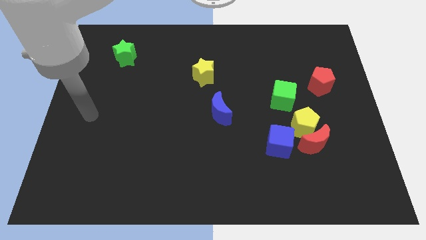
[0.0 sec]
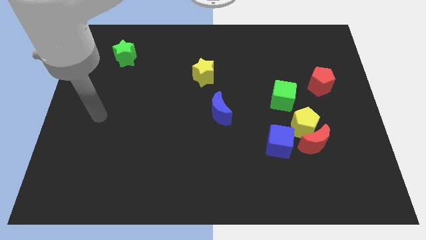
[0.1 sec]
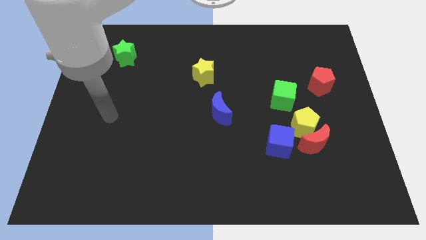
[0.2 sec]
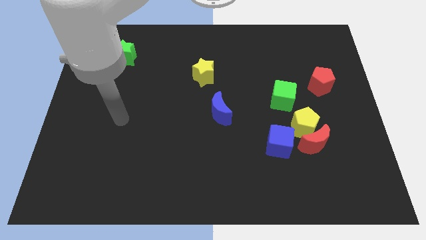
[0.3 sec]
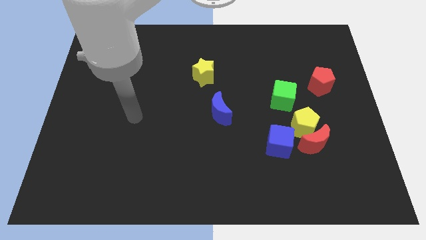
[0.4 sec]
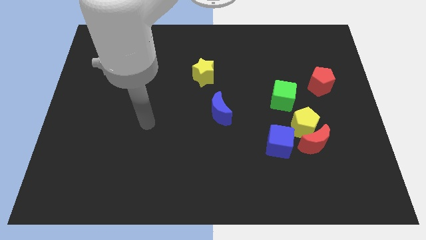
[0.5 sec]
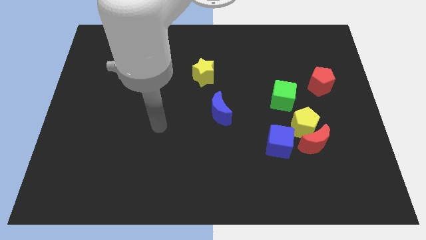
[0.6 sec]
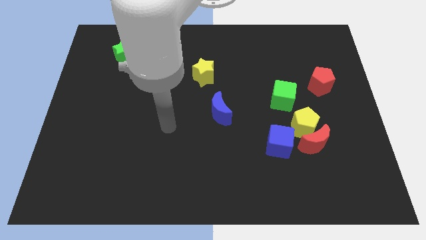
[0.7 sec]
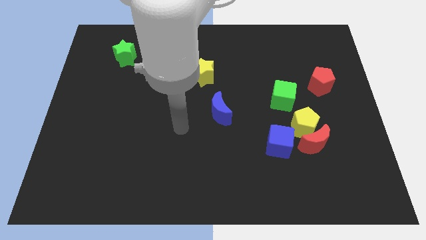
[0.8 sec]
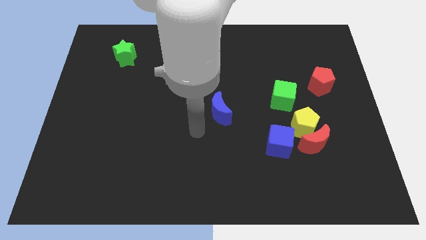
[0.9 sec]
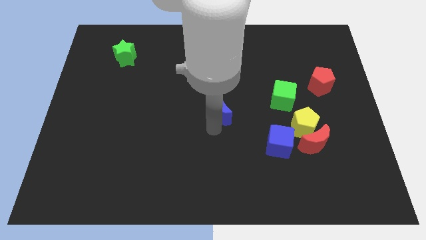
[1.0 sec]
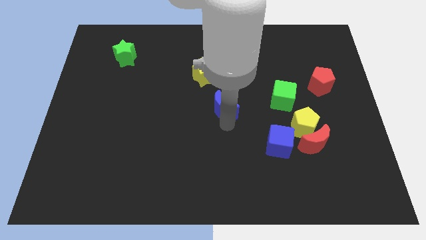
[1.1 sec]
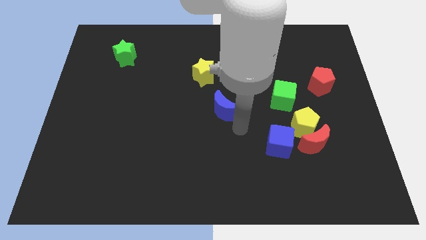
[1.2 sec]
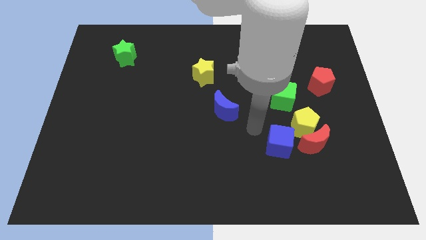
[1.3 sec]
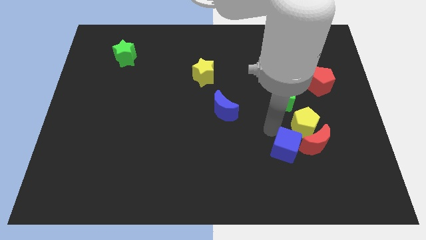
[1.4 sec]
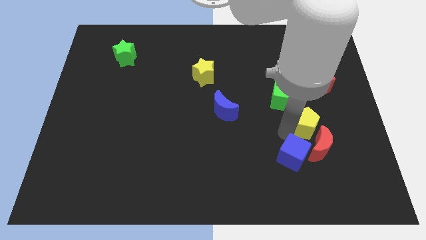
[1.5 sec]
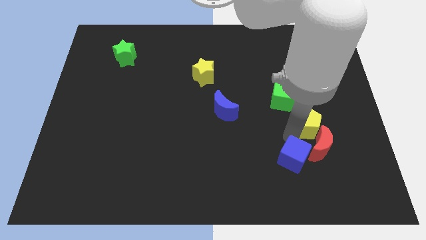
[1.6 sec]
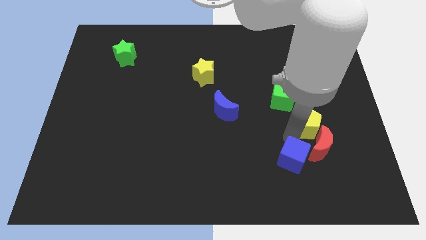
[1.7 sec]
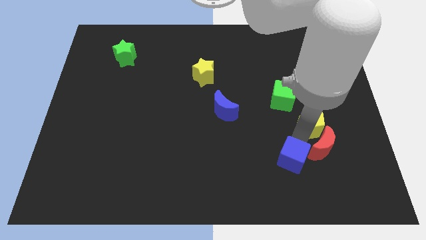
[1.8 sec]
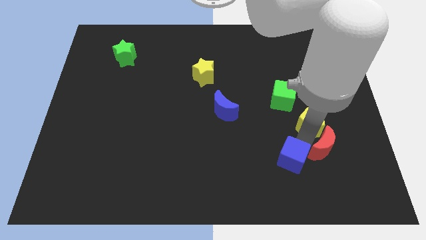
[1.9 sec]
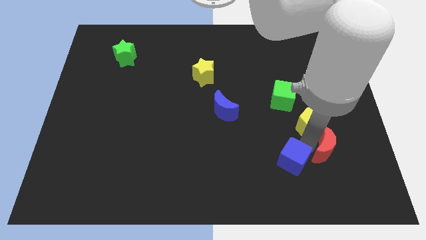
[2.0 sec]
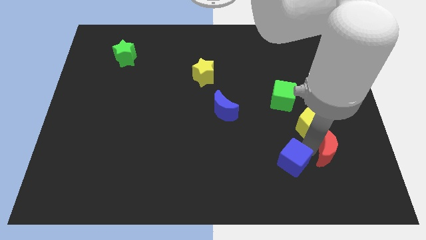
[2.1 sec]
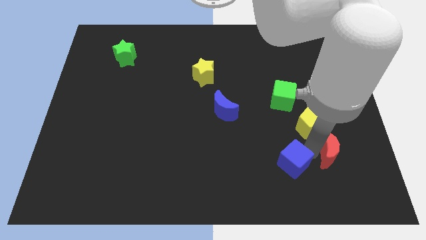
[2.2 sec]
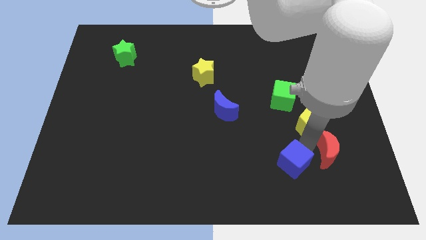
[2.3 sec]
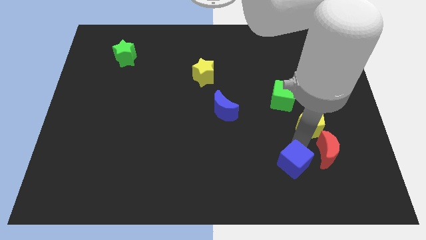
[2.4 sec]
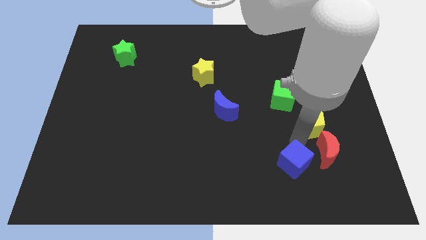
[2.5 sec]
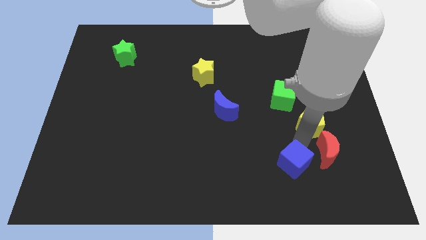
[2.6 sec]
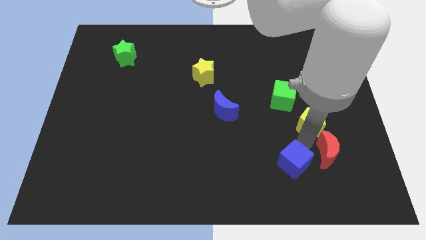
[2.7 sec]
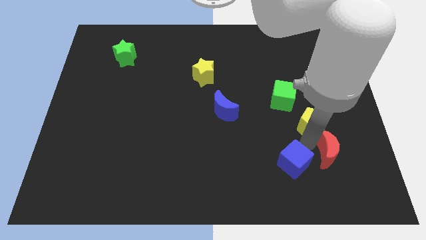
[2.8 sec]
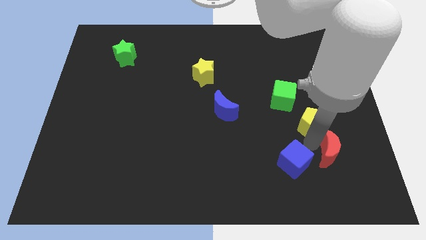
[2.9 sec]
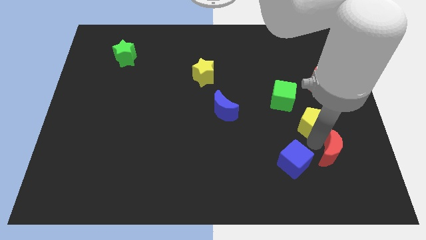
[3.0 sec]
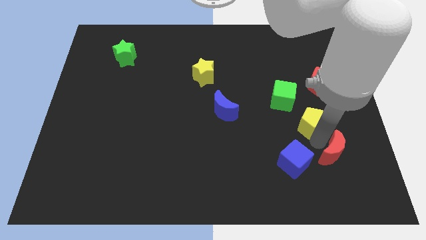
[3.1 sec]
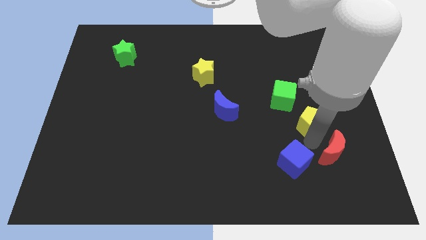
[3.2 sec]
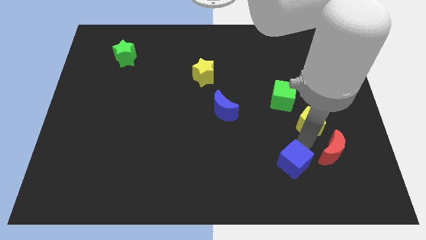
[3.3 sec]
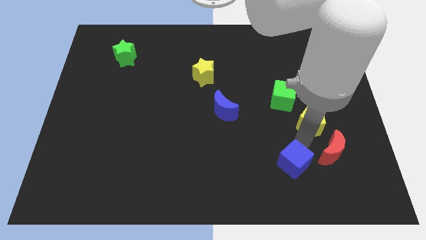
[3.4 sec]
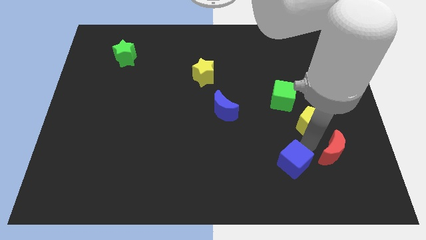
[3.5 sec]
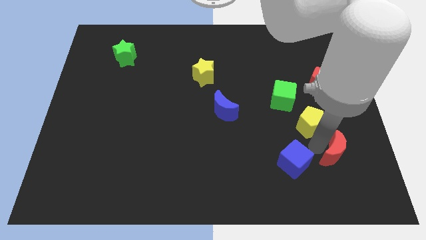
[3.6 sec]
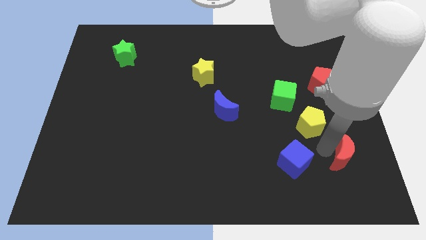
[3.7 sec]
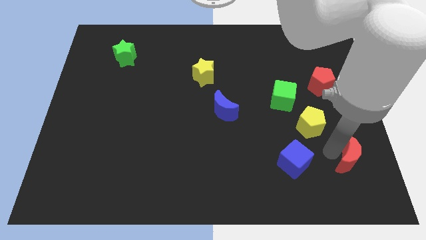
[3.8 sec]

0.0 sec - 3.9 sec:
pull the red moon apart from the yellow pentagon and blue cube

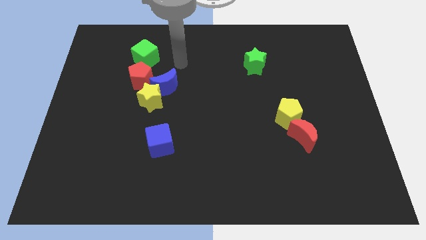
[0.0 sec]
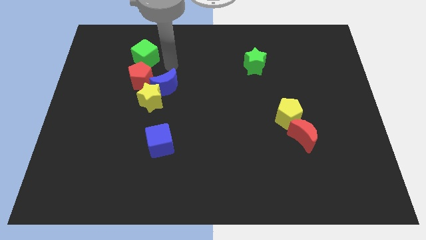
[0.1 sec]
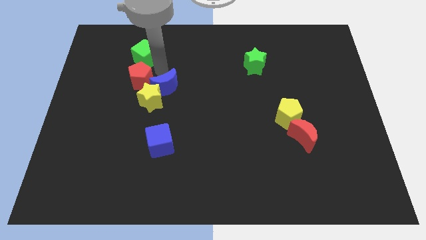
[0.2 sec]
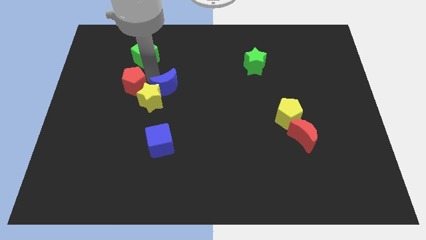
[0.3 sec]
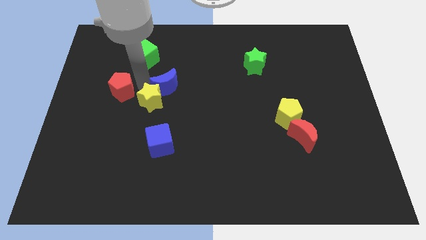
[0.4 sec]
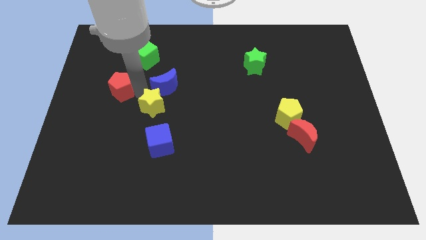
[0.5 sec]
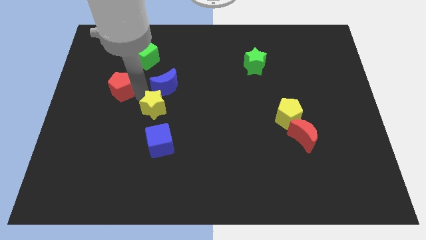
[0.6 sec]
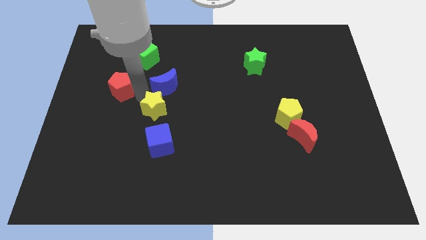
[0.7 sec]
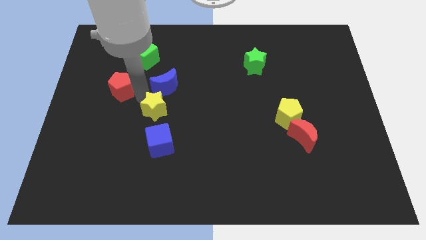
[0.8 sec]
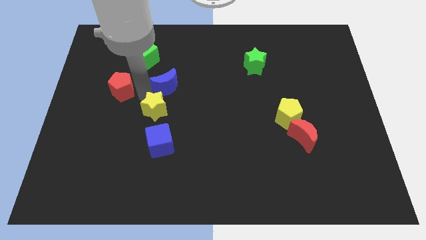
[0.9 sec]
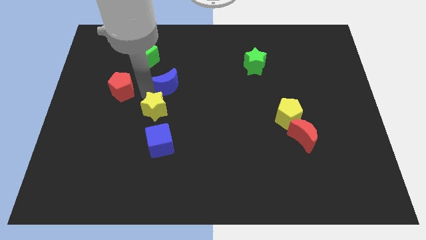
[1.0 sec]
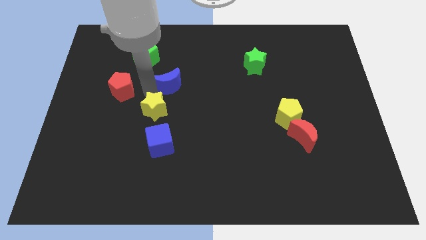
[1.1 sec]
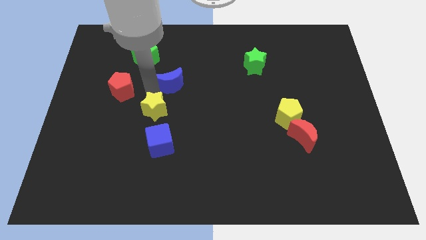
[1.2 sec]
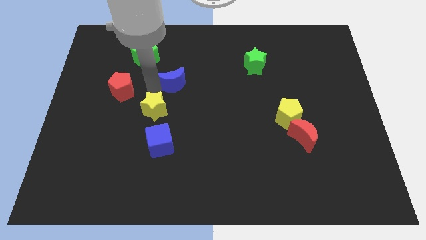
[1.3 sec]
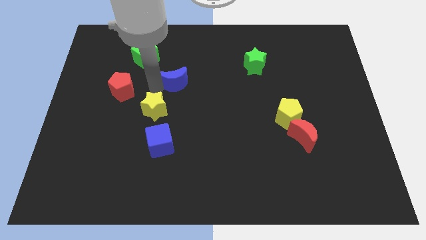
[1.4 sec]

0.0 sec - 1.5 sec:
pull the blue moon apart from the yellow star and red pentagon

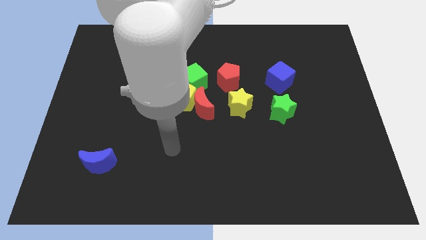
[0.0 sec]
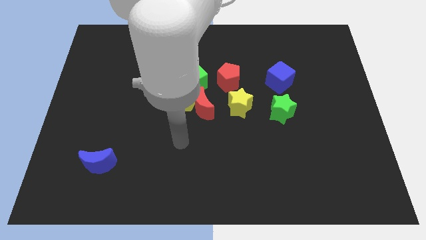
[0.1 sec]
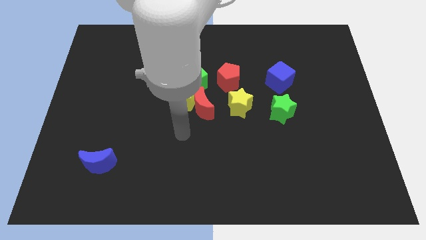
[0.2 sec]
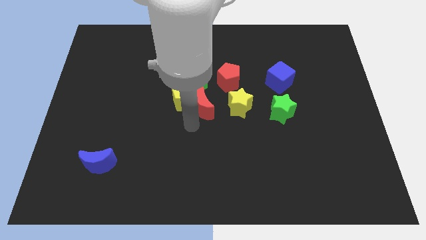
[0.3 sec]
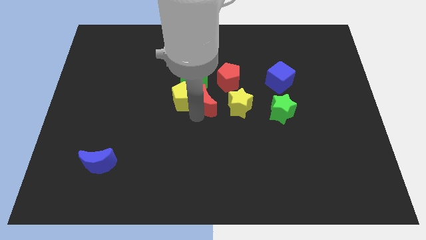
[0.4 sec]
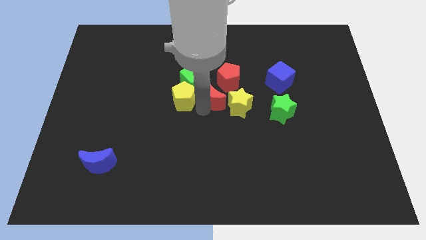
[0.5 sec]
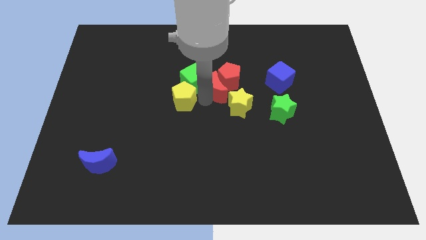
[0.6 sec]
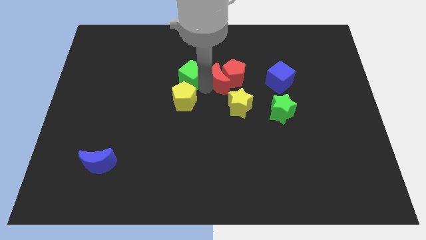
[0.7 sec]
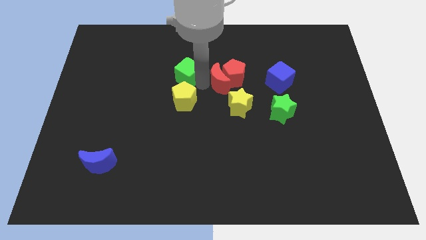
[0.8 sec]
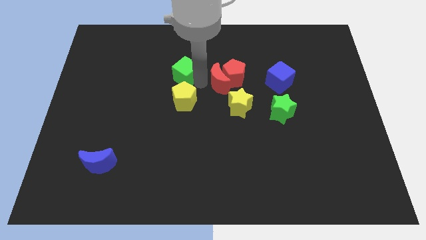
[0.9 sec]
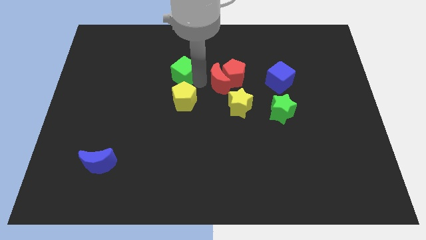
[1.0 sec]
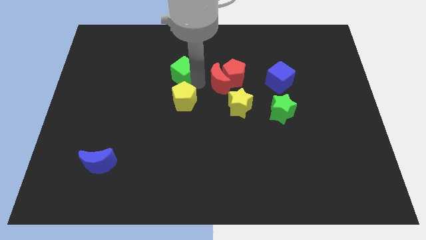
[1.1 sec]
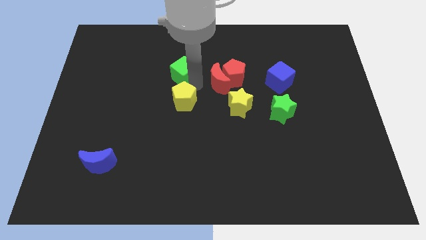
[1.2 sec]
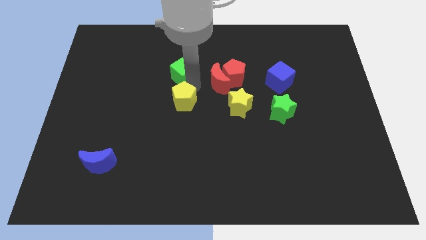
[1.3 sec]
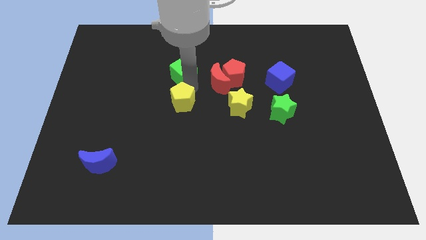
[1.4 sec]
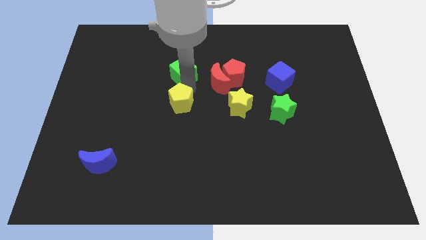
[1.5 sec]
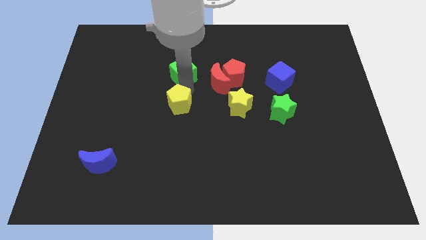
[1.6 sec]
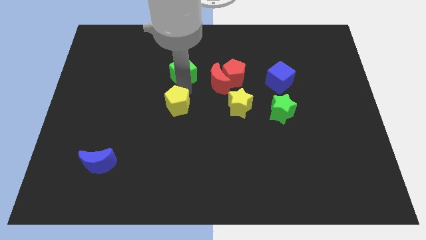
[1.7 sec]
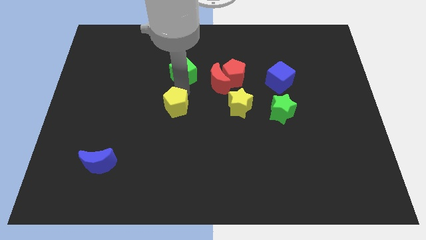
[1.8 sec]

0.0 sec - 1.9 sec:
separate the yellow pentagon from the red moon and green cube

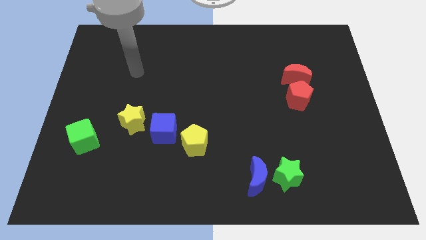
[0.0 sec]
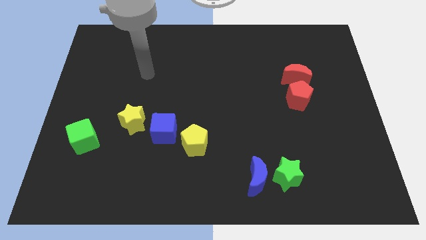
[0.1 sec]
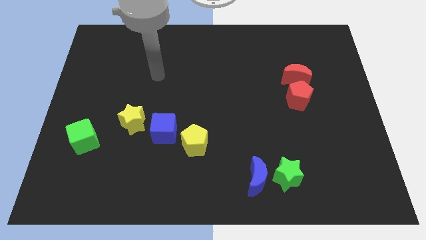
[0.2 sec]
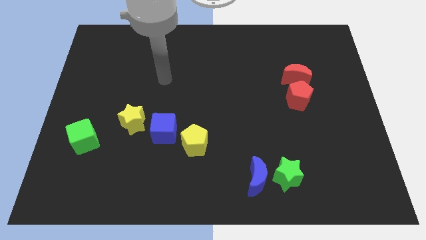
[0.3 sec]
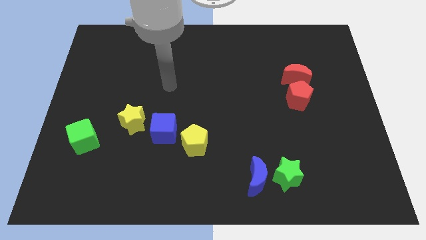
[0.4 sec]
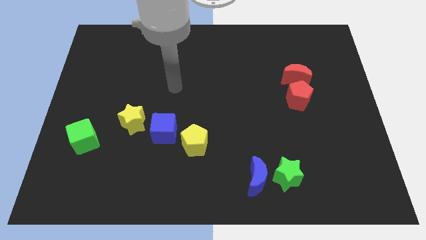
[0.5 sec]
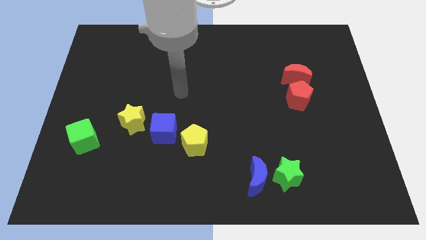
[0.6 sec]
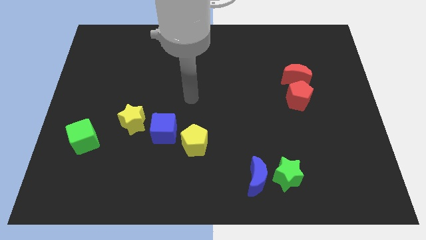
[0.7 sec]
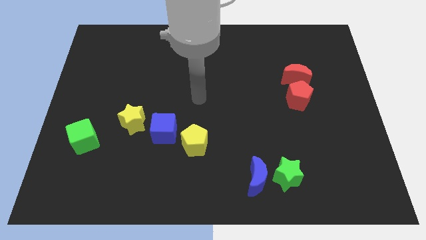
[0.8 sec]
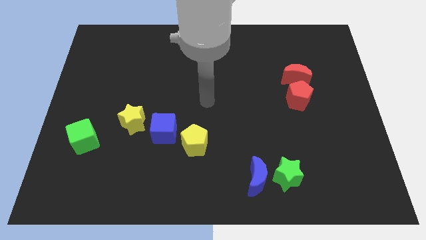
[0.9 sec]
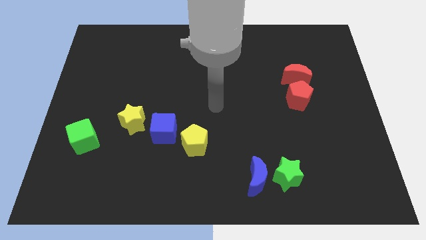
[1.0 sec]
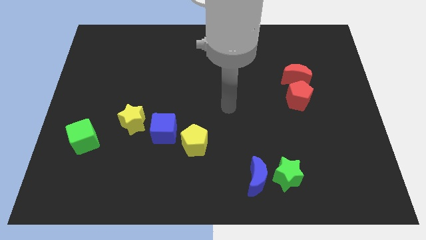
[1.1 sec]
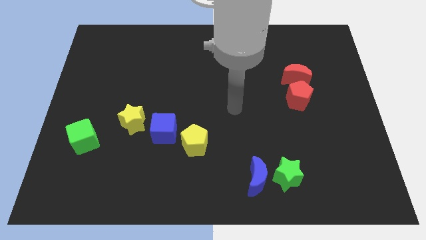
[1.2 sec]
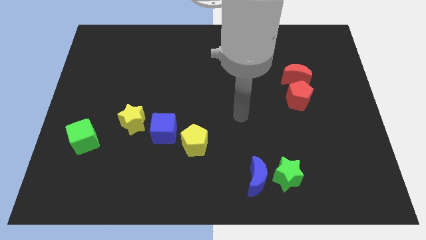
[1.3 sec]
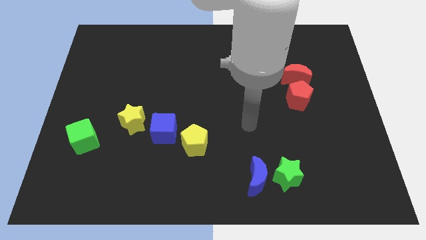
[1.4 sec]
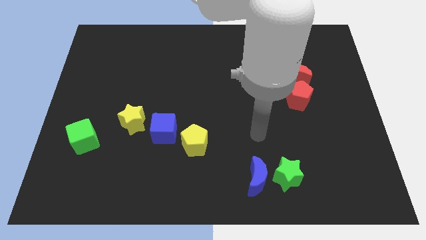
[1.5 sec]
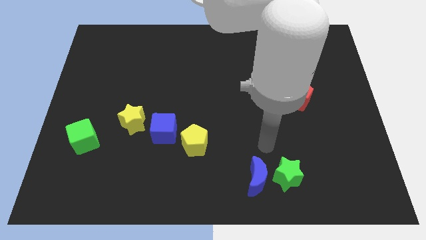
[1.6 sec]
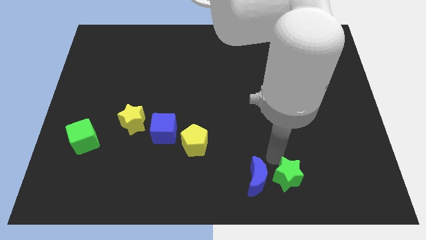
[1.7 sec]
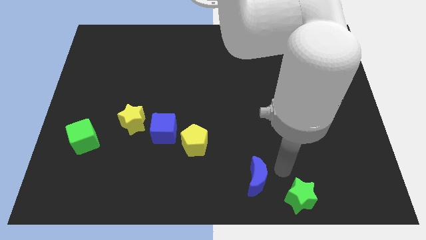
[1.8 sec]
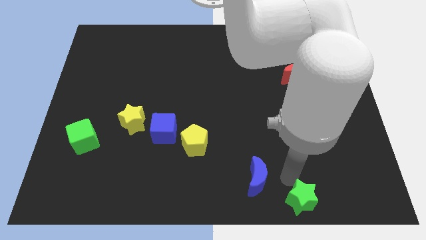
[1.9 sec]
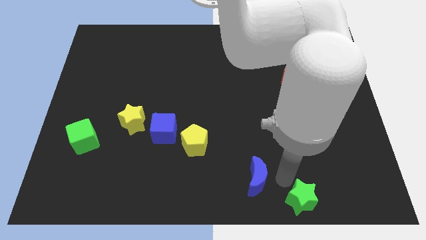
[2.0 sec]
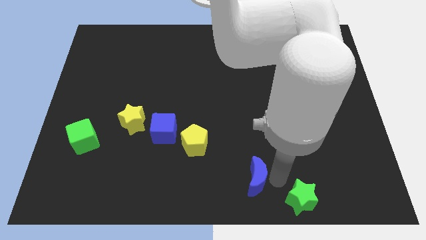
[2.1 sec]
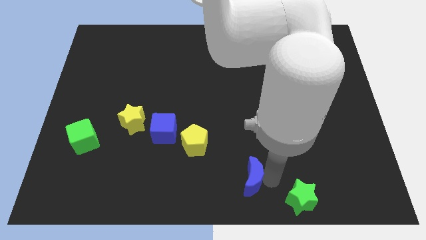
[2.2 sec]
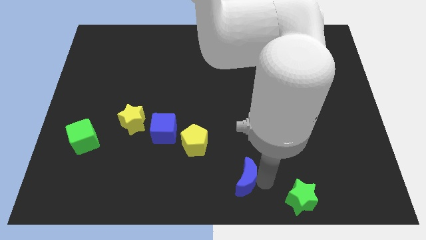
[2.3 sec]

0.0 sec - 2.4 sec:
separate the blue moon from the green star
